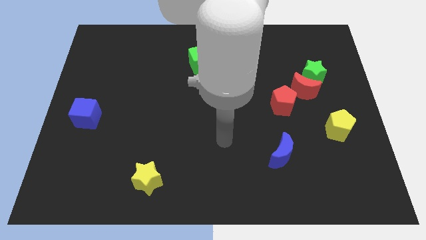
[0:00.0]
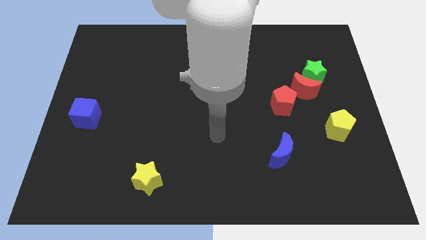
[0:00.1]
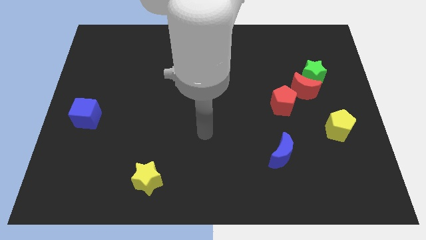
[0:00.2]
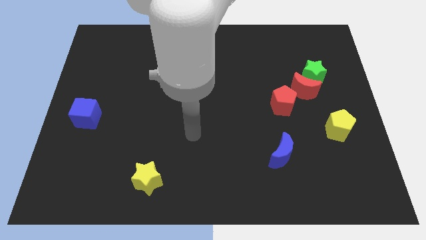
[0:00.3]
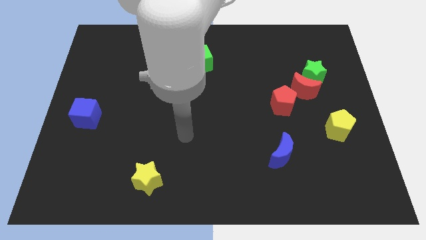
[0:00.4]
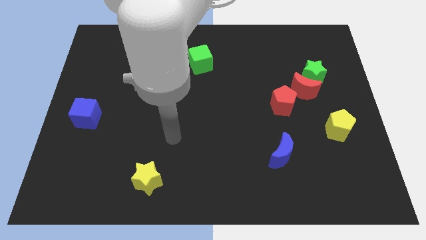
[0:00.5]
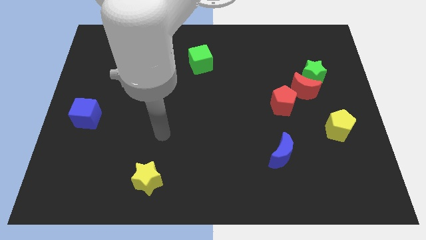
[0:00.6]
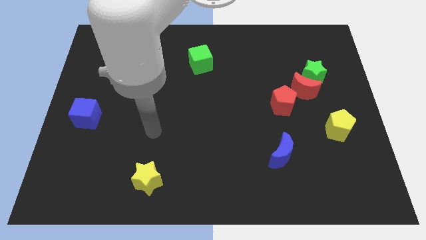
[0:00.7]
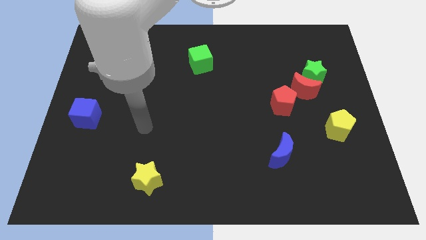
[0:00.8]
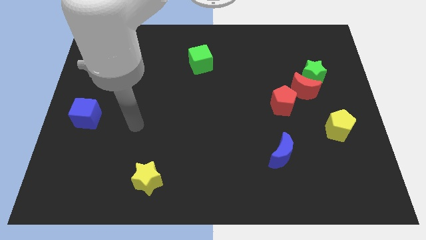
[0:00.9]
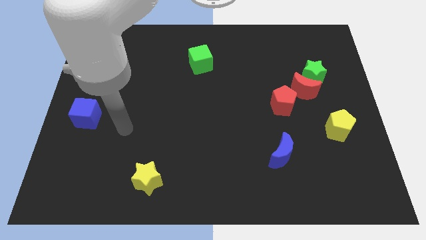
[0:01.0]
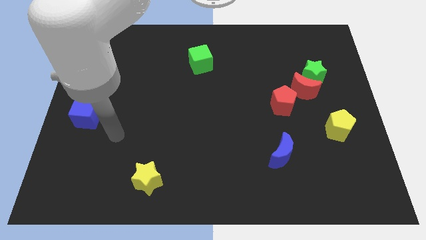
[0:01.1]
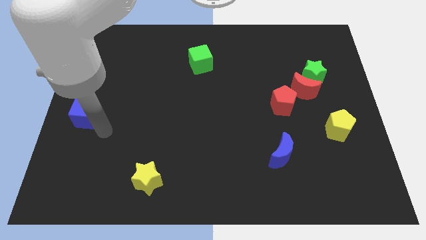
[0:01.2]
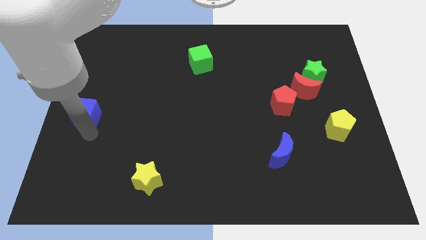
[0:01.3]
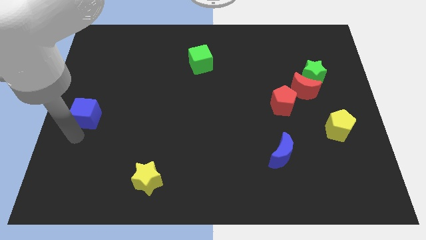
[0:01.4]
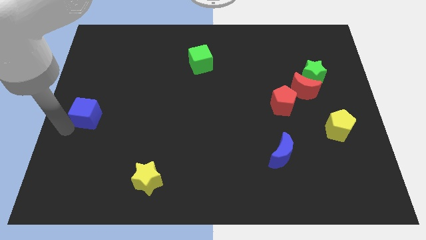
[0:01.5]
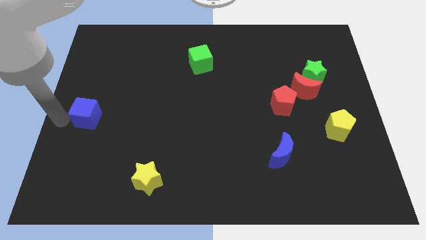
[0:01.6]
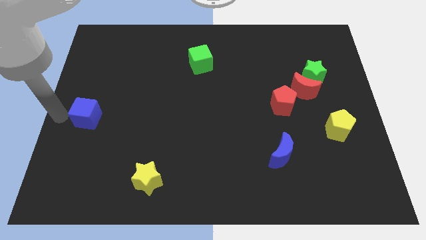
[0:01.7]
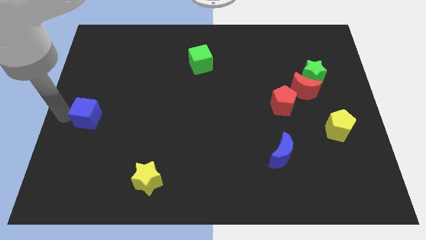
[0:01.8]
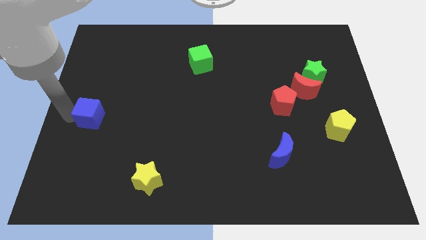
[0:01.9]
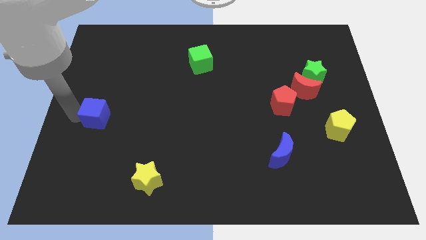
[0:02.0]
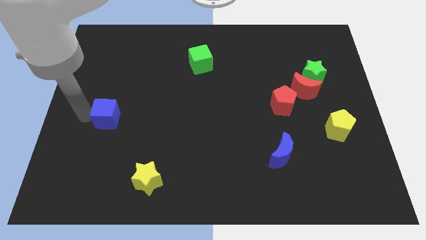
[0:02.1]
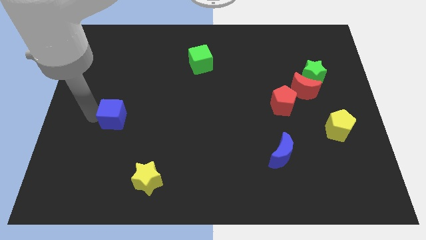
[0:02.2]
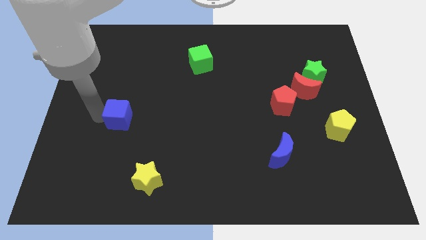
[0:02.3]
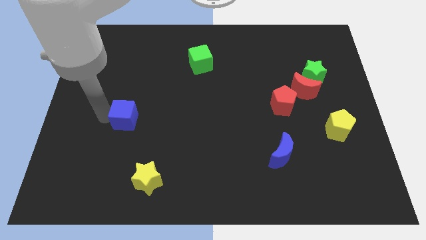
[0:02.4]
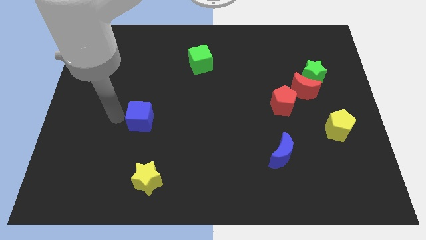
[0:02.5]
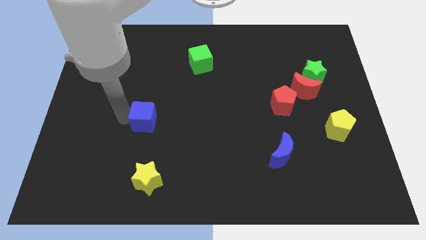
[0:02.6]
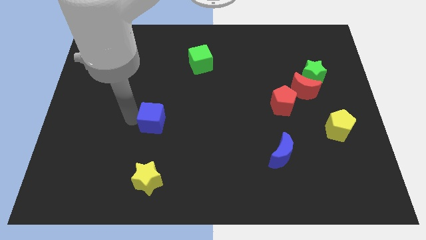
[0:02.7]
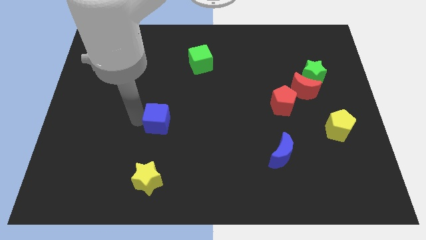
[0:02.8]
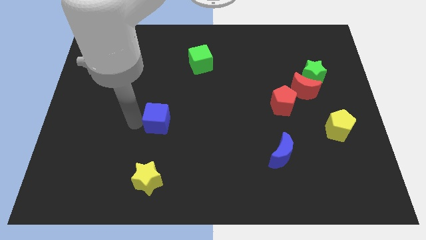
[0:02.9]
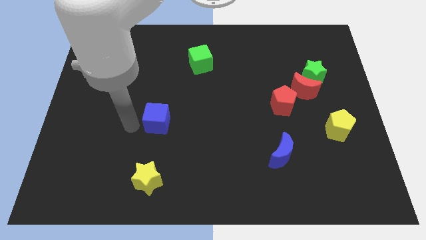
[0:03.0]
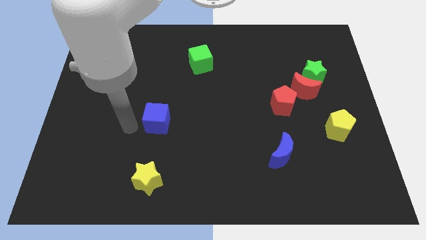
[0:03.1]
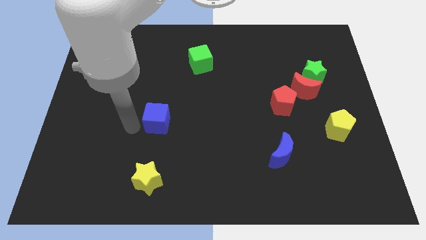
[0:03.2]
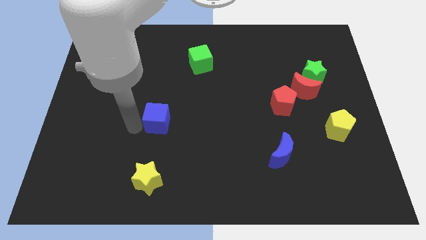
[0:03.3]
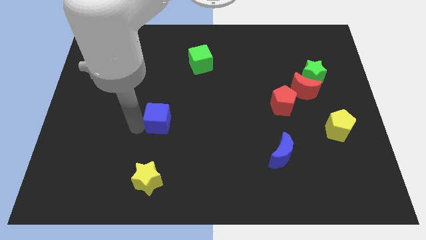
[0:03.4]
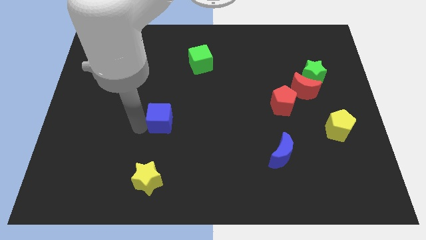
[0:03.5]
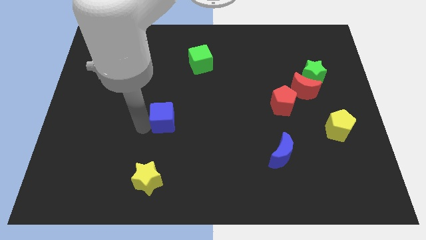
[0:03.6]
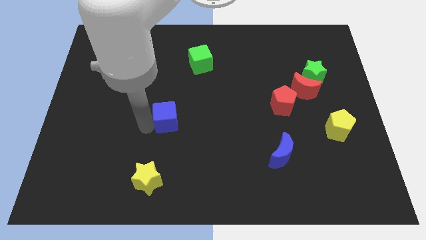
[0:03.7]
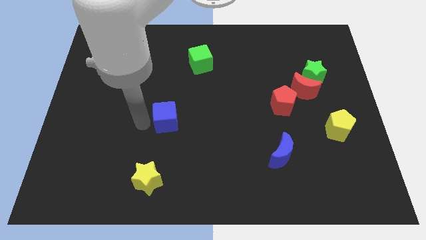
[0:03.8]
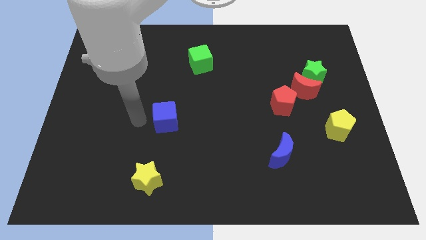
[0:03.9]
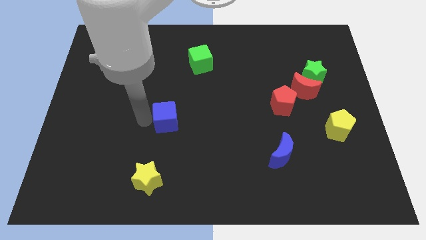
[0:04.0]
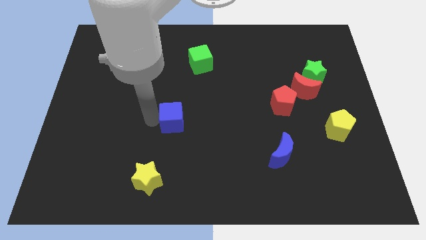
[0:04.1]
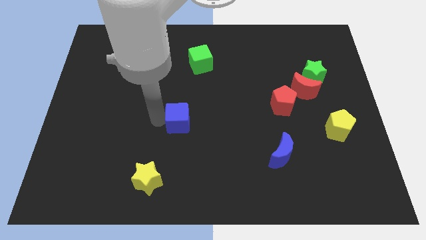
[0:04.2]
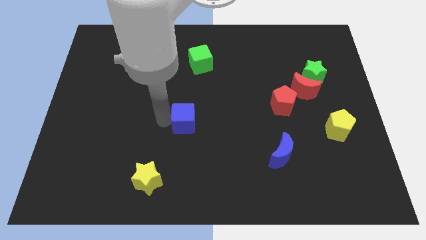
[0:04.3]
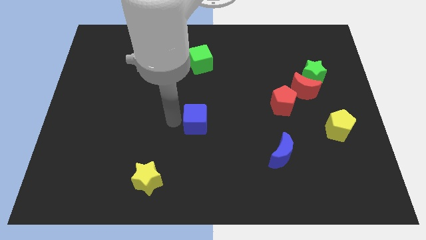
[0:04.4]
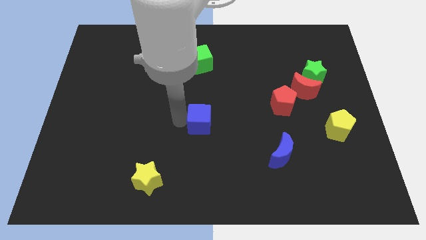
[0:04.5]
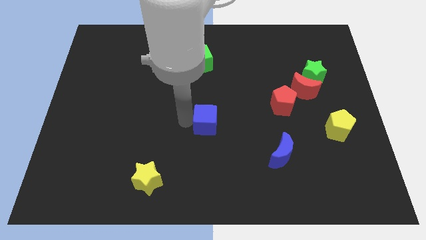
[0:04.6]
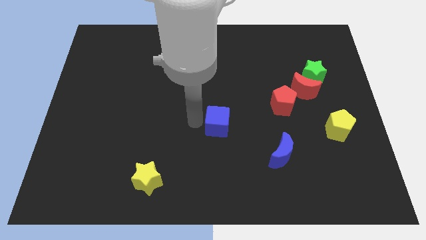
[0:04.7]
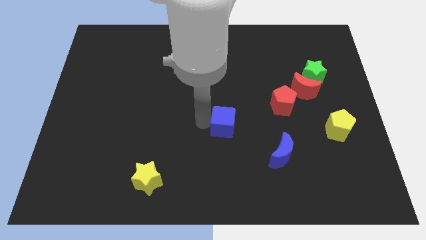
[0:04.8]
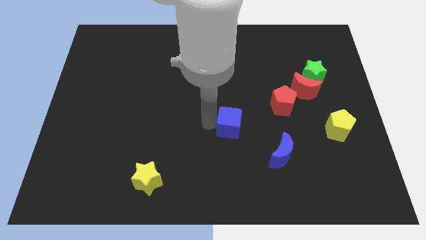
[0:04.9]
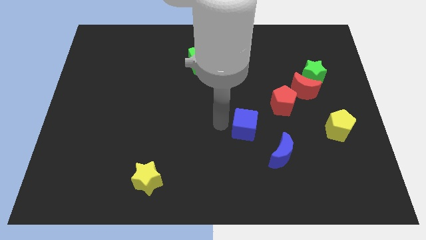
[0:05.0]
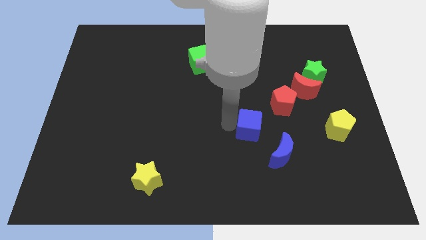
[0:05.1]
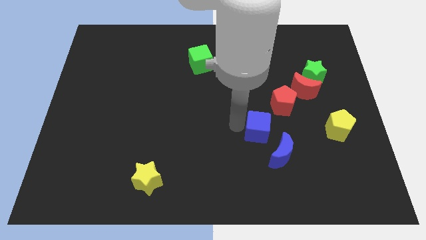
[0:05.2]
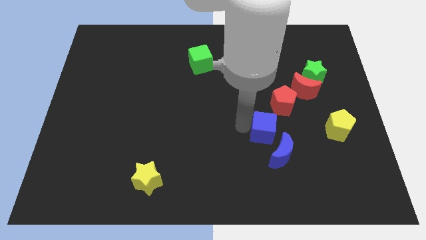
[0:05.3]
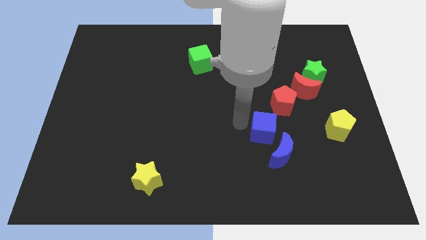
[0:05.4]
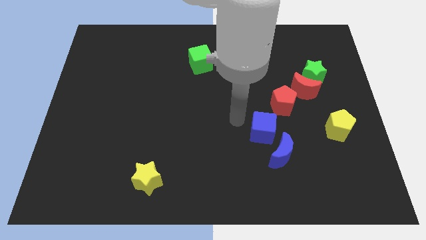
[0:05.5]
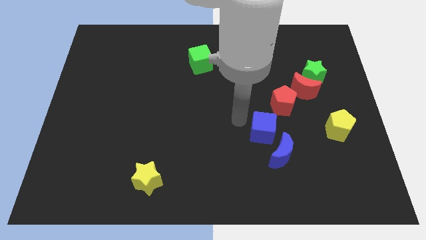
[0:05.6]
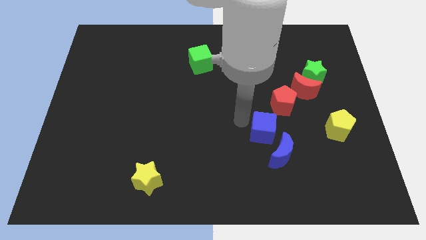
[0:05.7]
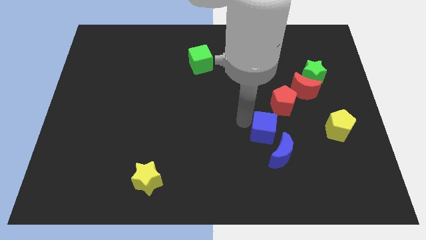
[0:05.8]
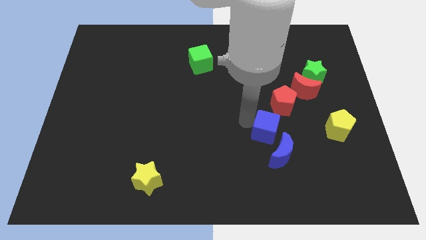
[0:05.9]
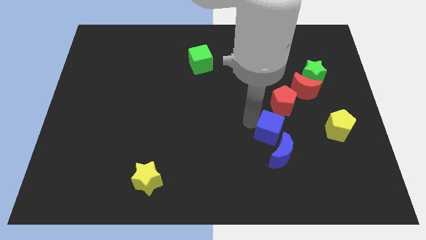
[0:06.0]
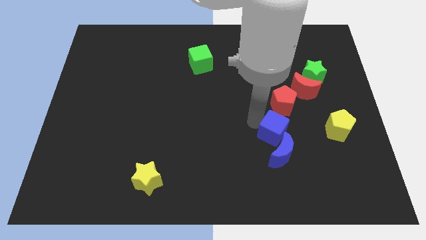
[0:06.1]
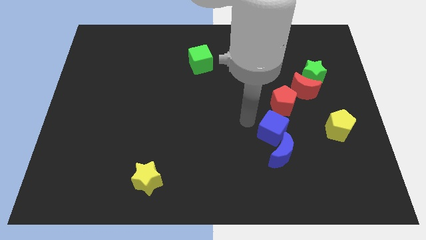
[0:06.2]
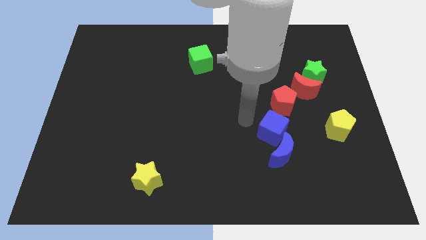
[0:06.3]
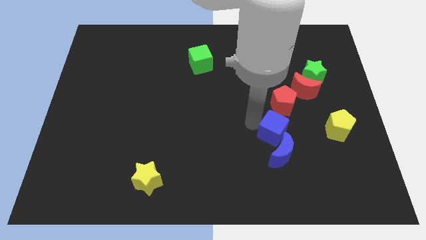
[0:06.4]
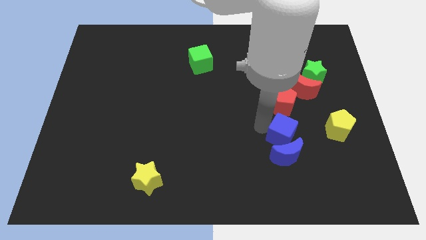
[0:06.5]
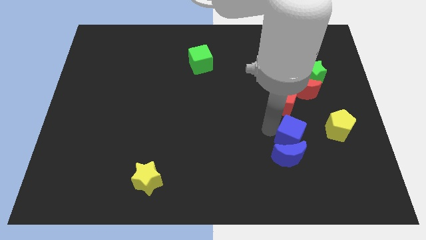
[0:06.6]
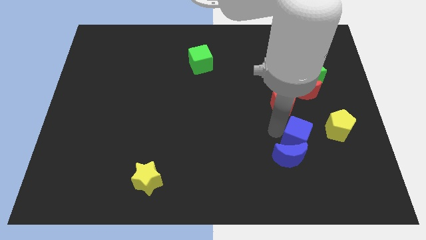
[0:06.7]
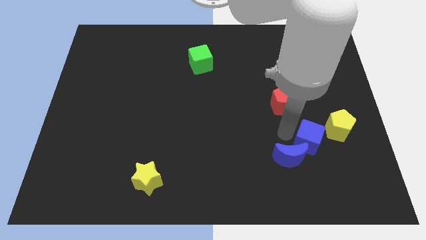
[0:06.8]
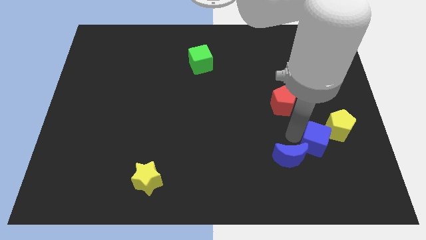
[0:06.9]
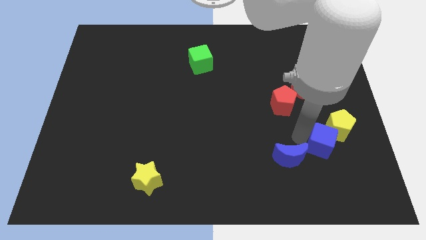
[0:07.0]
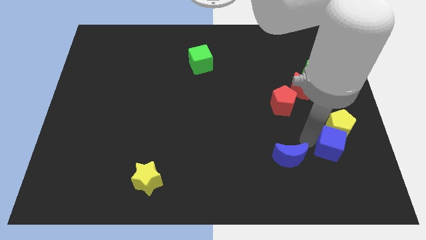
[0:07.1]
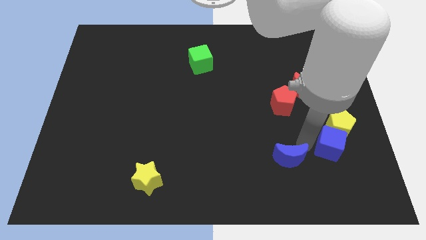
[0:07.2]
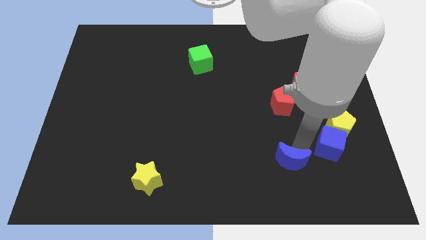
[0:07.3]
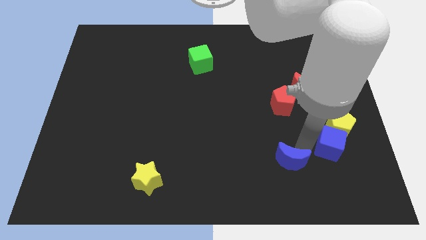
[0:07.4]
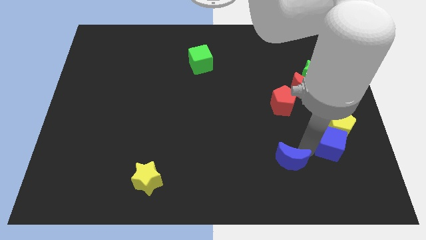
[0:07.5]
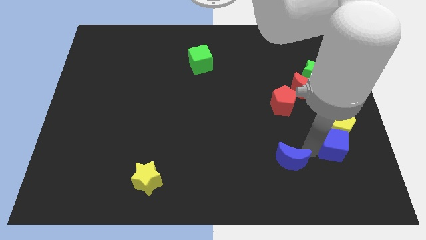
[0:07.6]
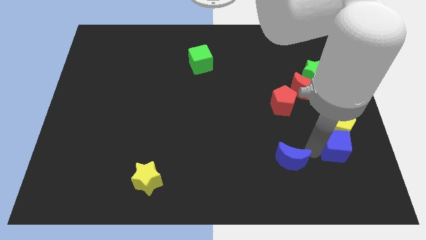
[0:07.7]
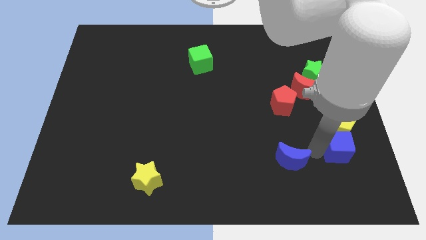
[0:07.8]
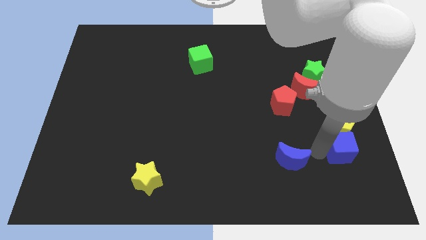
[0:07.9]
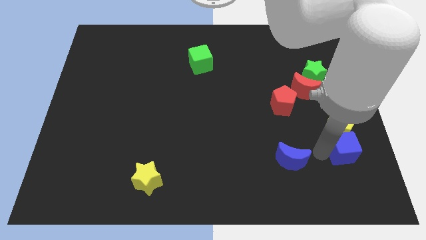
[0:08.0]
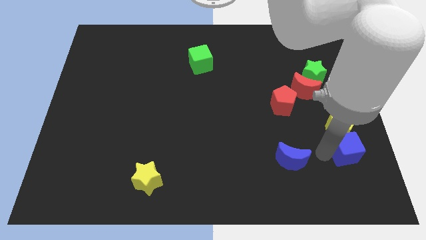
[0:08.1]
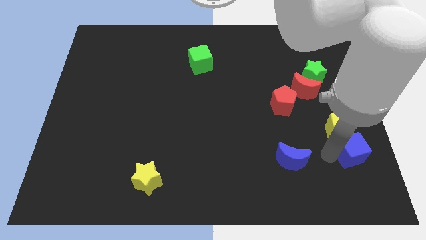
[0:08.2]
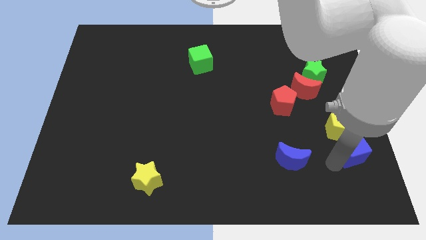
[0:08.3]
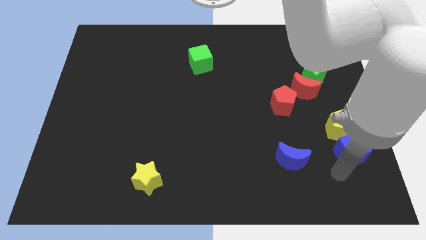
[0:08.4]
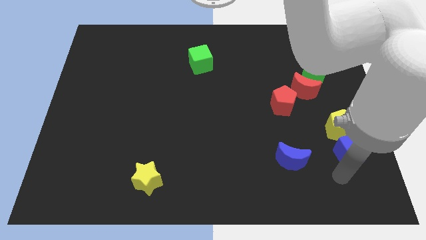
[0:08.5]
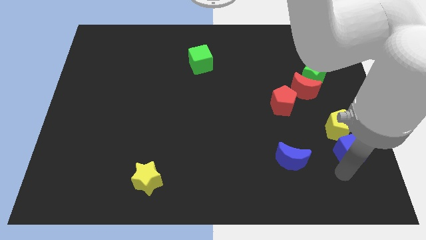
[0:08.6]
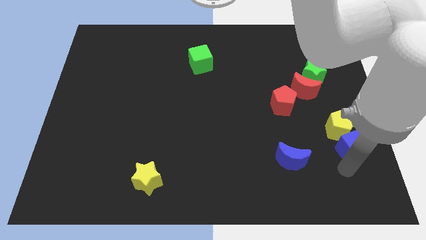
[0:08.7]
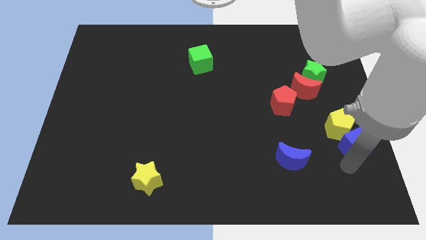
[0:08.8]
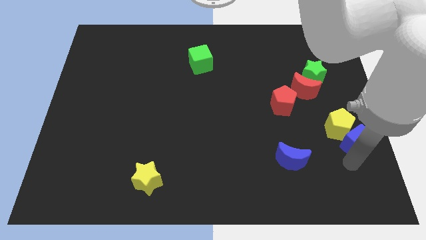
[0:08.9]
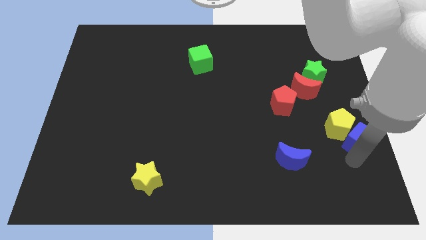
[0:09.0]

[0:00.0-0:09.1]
slide the blue cube to the center right
